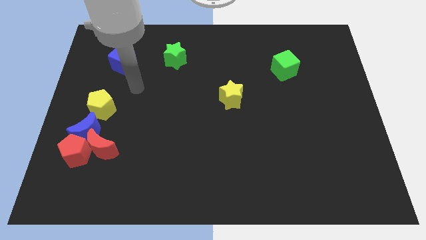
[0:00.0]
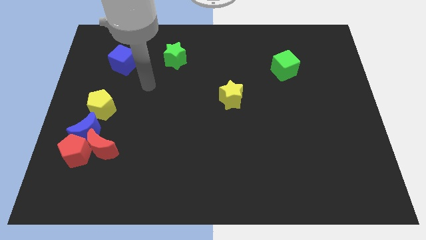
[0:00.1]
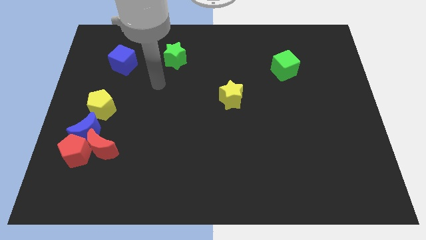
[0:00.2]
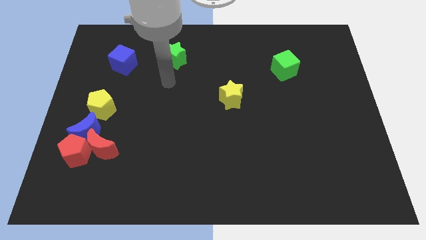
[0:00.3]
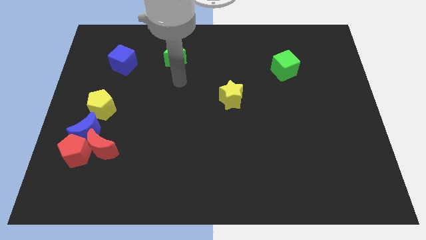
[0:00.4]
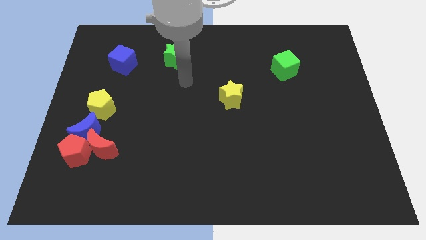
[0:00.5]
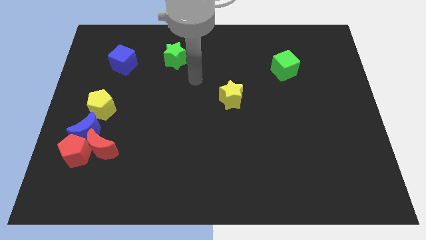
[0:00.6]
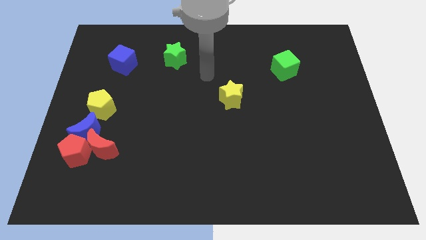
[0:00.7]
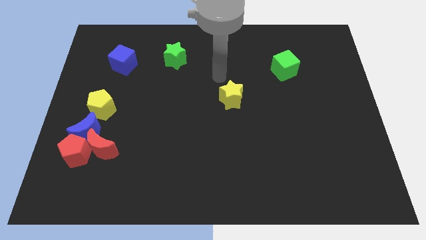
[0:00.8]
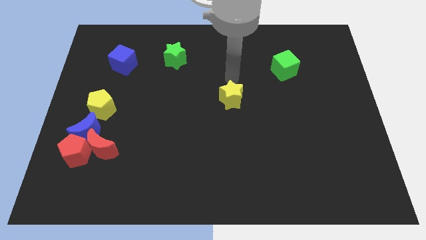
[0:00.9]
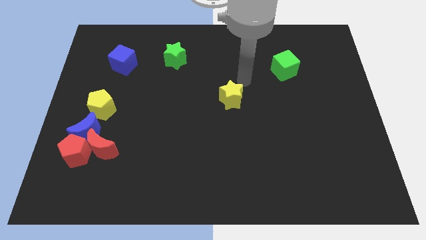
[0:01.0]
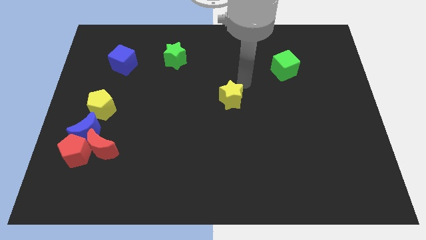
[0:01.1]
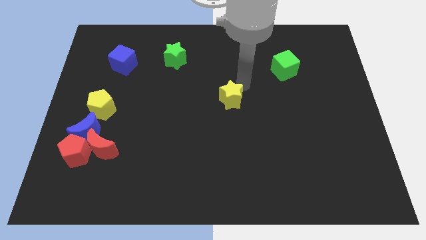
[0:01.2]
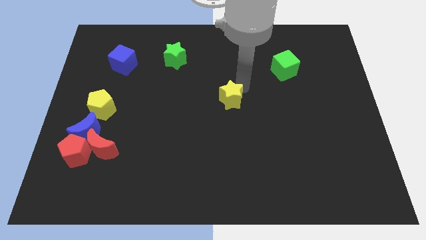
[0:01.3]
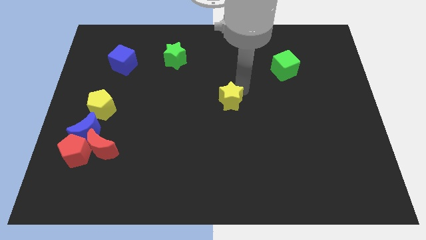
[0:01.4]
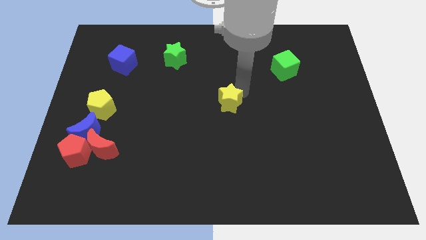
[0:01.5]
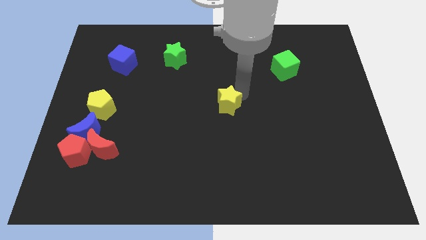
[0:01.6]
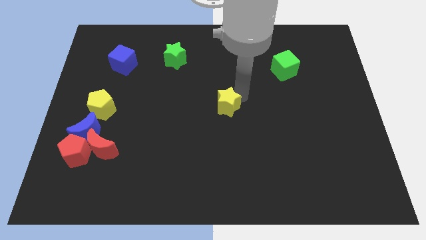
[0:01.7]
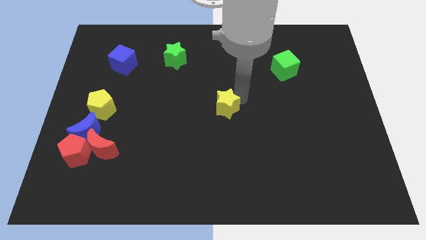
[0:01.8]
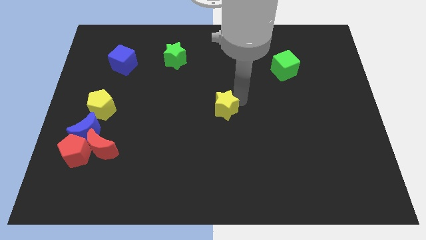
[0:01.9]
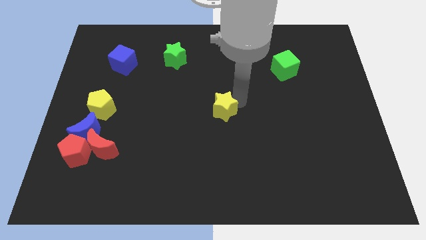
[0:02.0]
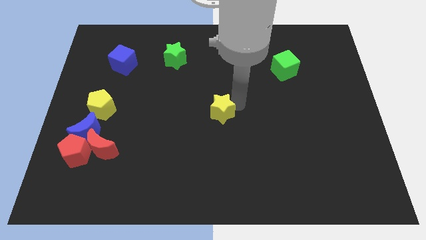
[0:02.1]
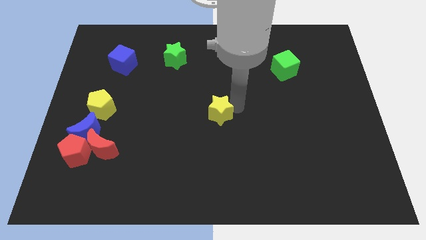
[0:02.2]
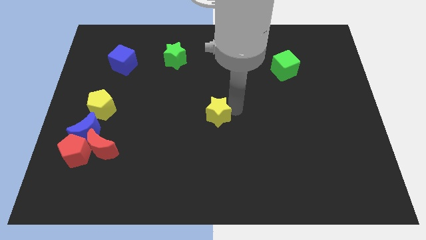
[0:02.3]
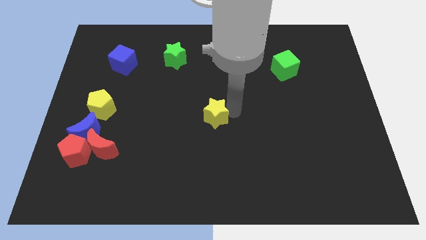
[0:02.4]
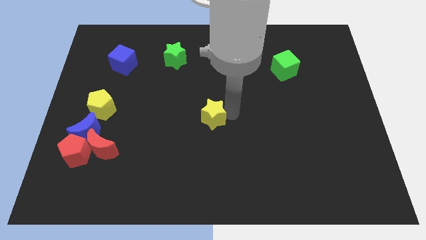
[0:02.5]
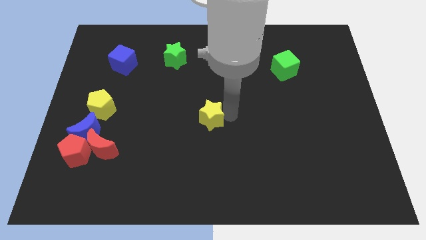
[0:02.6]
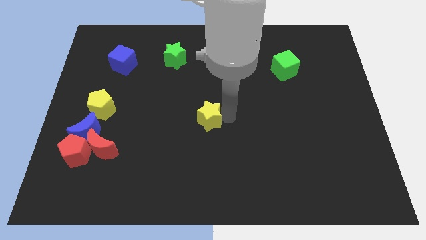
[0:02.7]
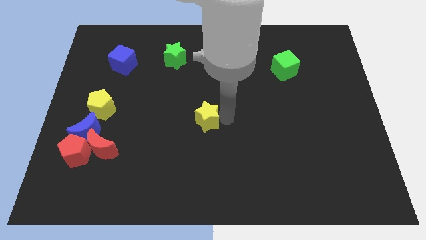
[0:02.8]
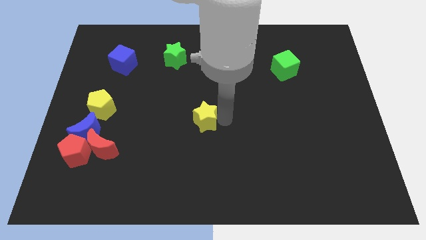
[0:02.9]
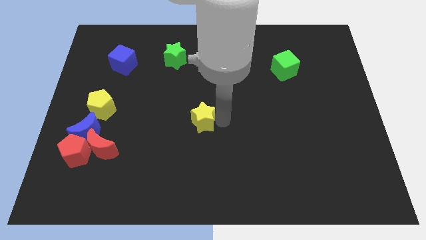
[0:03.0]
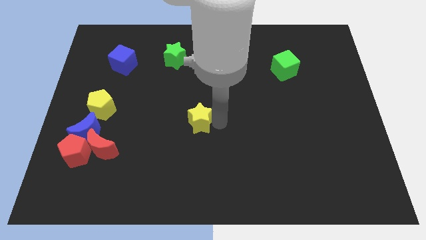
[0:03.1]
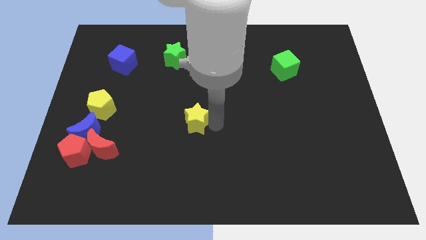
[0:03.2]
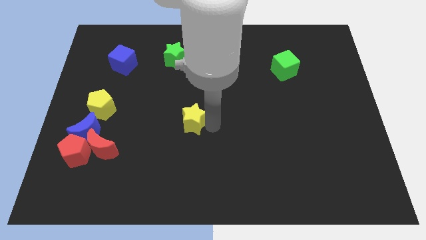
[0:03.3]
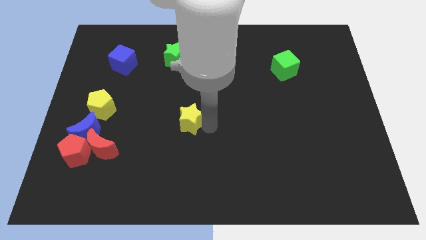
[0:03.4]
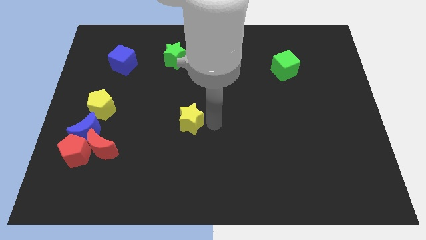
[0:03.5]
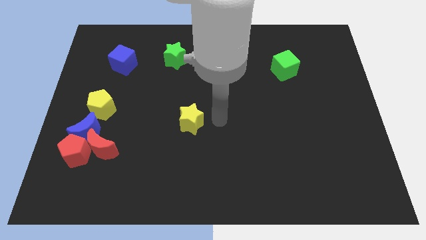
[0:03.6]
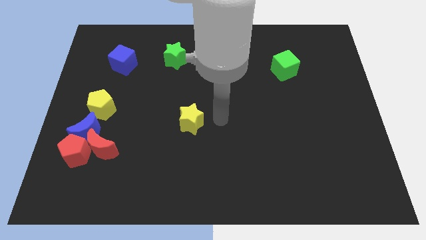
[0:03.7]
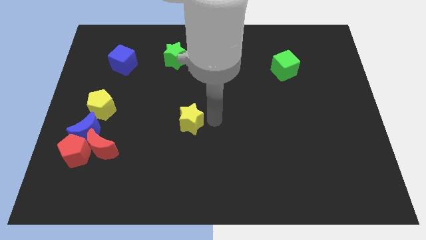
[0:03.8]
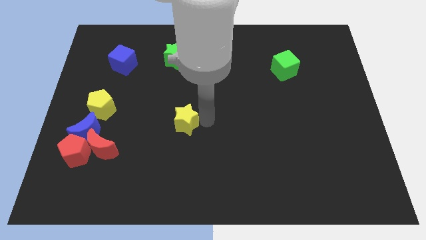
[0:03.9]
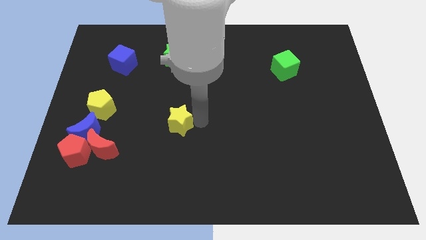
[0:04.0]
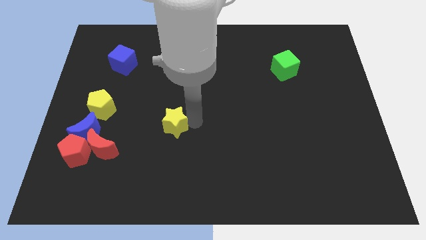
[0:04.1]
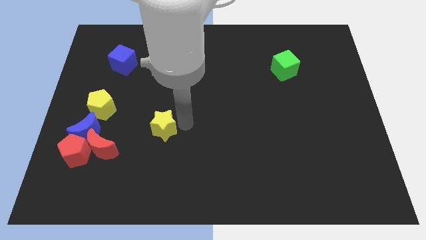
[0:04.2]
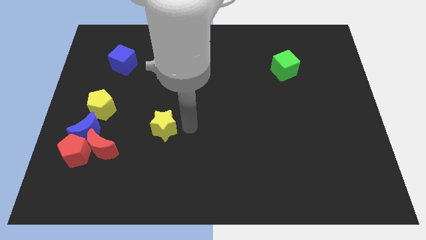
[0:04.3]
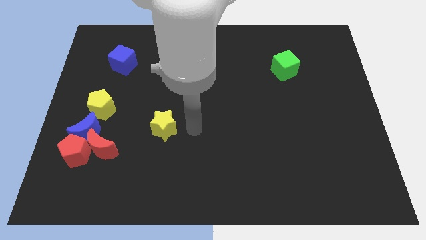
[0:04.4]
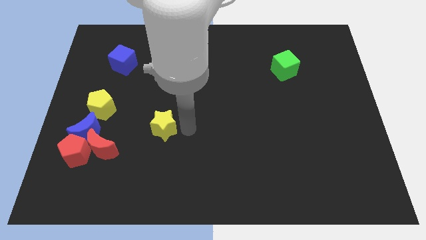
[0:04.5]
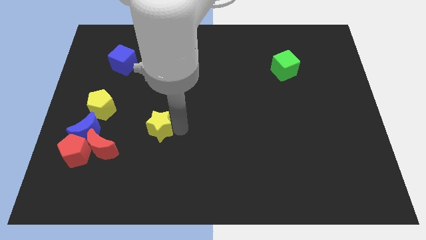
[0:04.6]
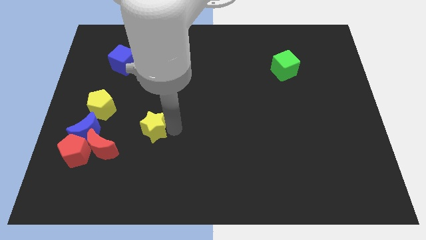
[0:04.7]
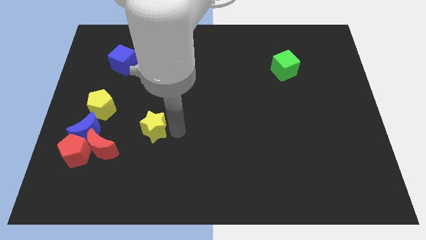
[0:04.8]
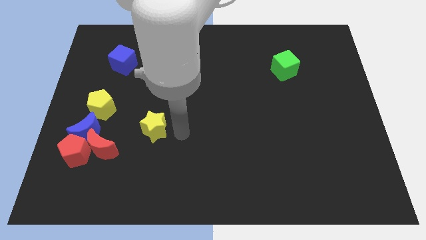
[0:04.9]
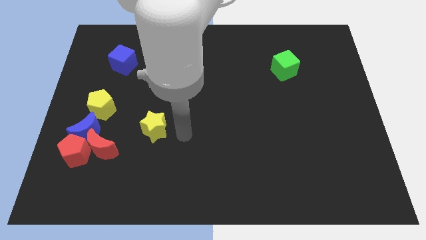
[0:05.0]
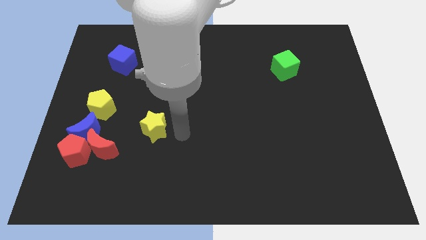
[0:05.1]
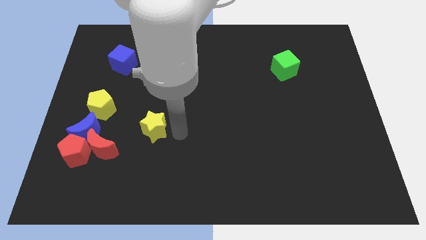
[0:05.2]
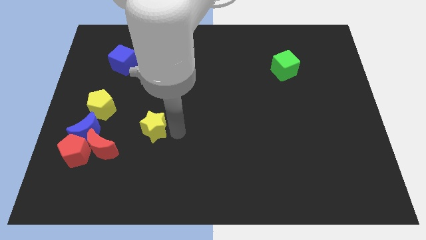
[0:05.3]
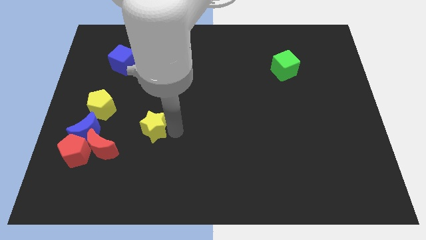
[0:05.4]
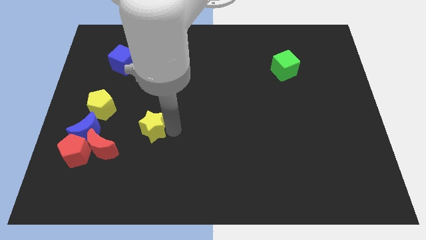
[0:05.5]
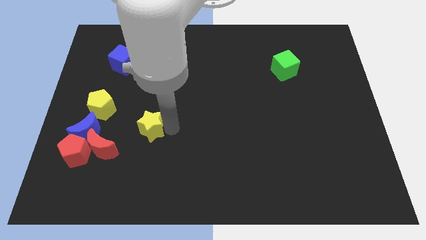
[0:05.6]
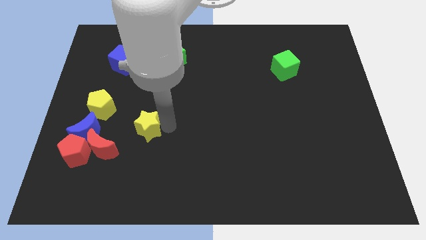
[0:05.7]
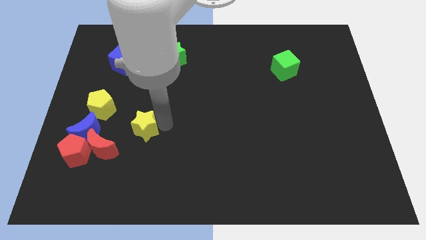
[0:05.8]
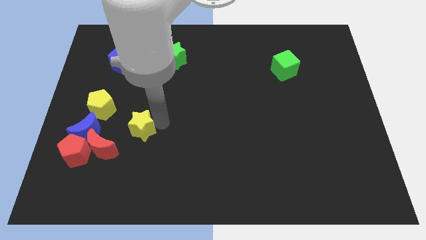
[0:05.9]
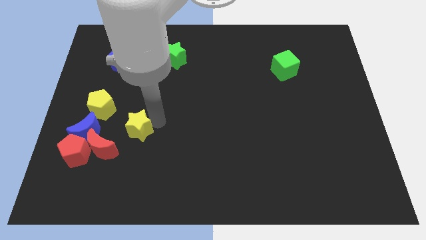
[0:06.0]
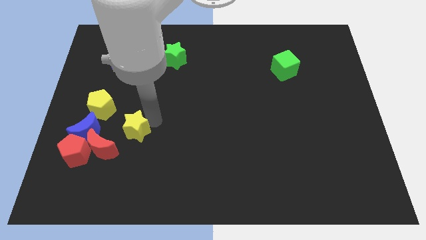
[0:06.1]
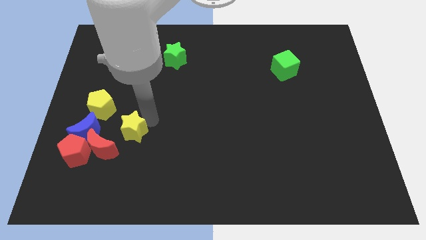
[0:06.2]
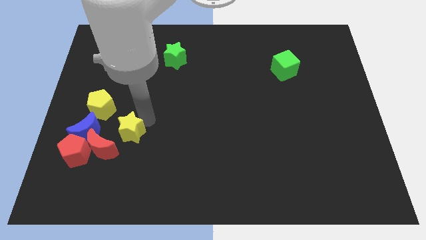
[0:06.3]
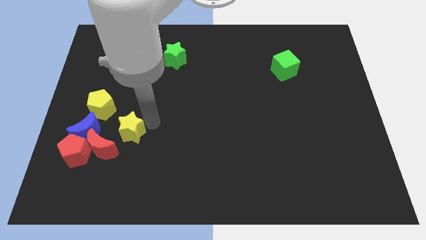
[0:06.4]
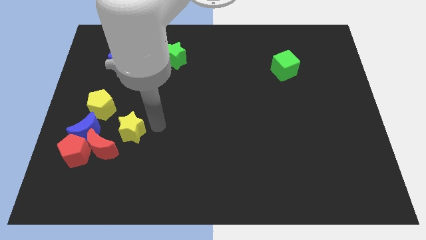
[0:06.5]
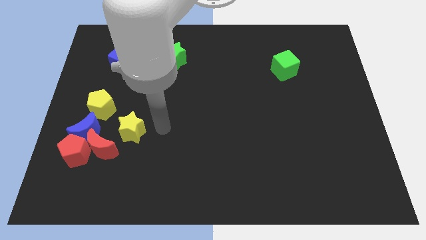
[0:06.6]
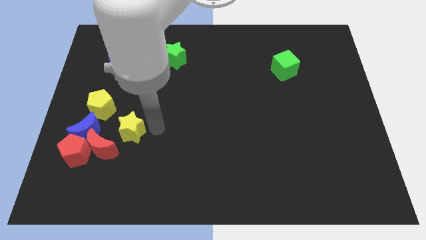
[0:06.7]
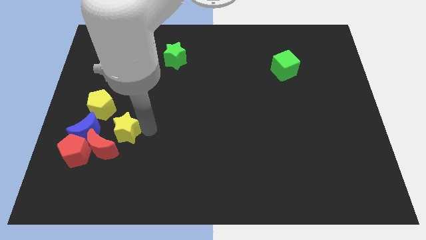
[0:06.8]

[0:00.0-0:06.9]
put the yellow star diagonally up and to the right of the red pentagon
